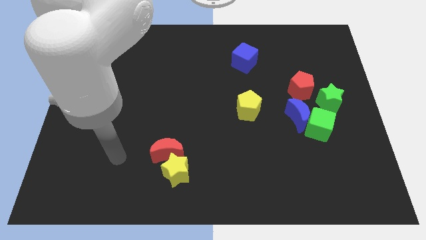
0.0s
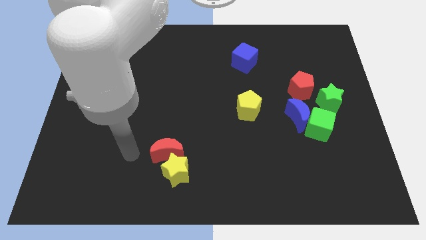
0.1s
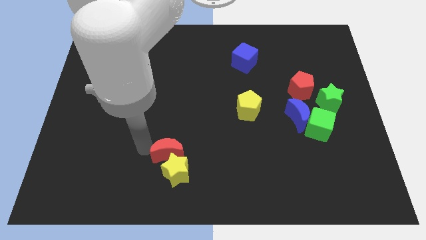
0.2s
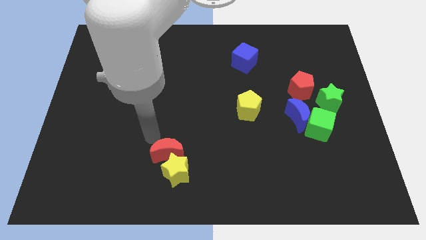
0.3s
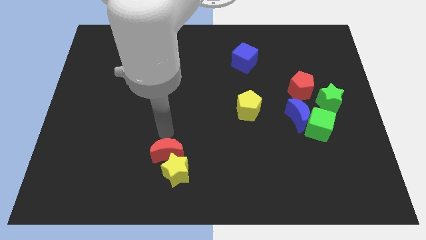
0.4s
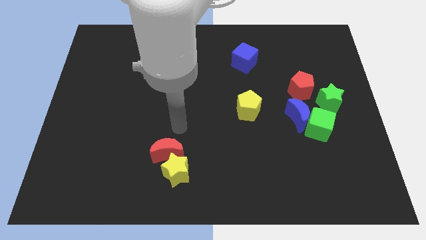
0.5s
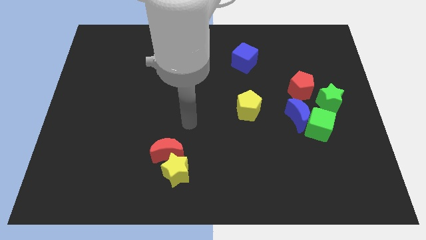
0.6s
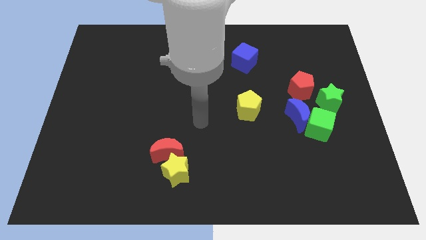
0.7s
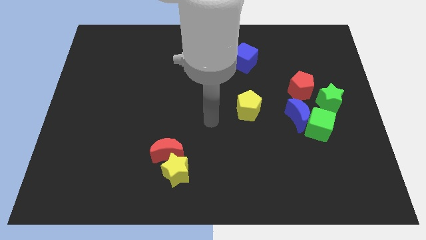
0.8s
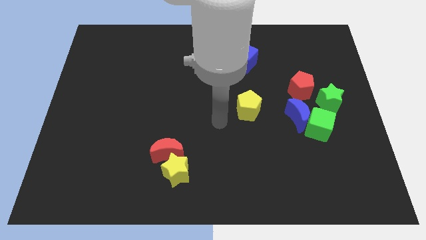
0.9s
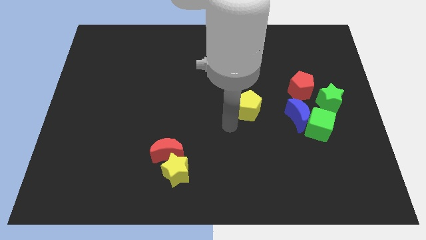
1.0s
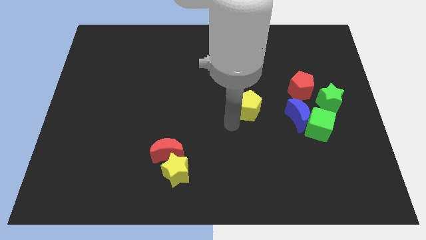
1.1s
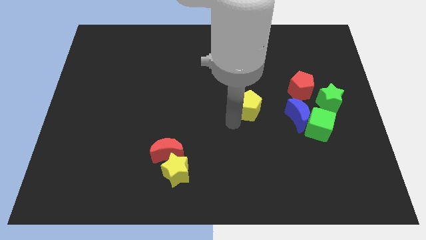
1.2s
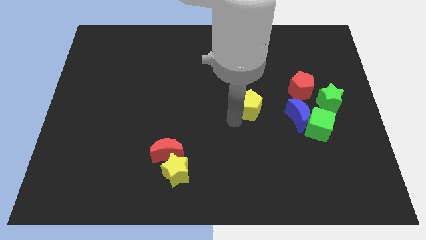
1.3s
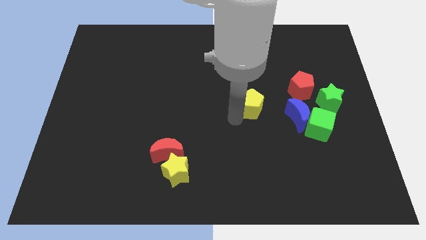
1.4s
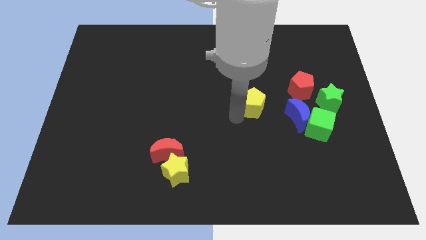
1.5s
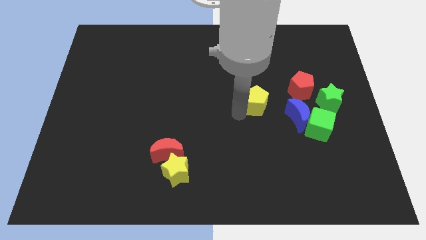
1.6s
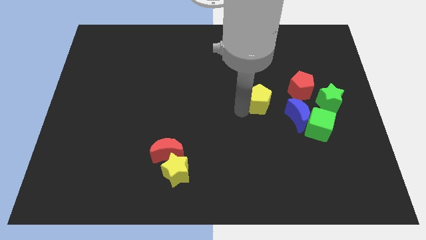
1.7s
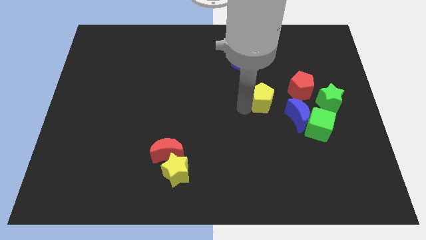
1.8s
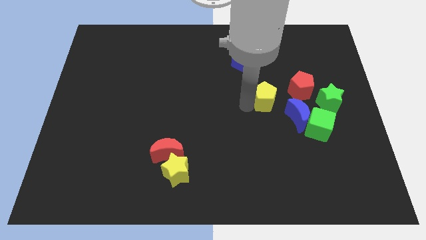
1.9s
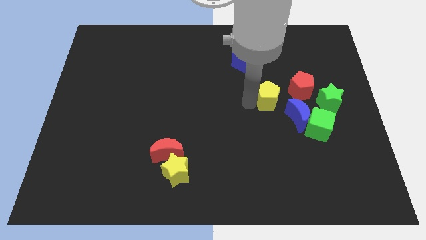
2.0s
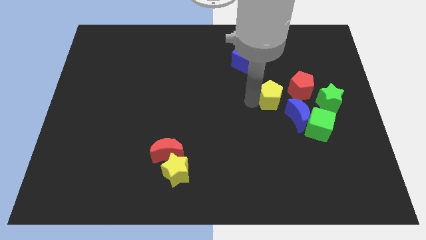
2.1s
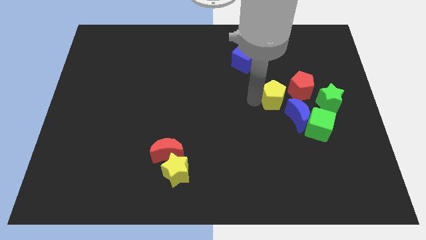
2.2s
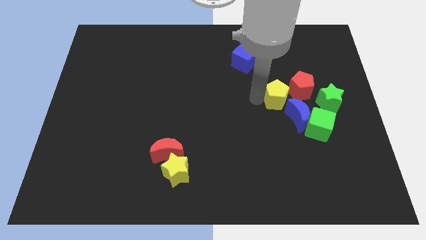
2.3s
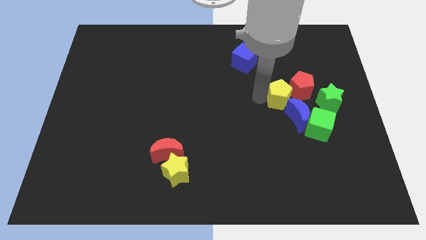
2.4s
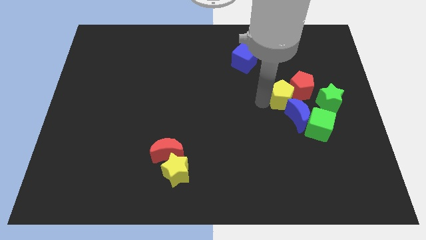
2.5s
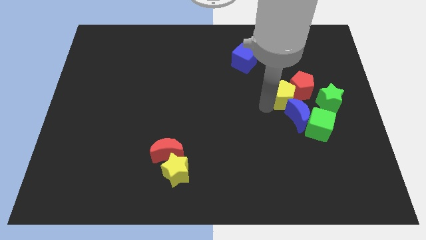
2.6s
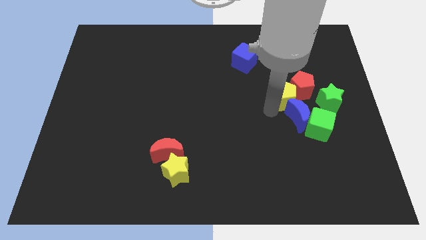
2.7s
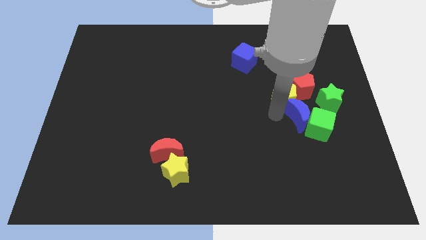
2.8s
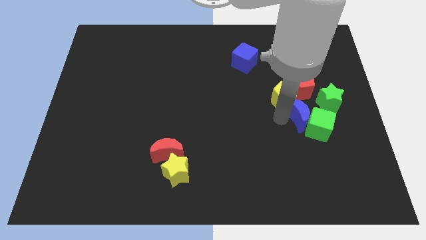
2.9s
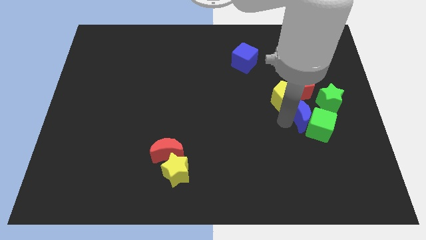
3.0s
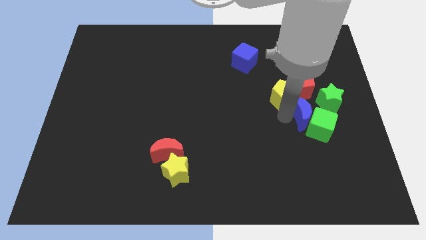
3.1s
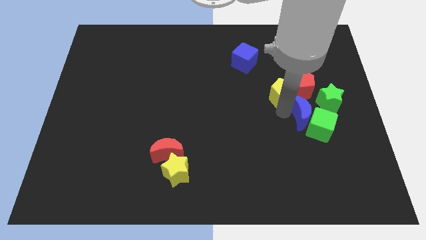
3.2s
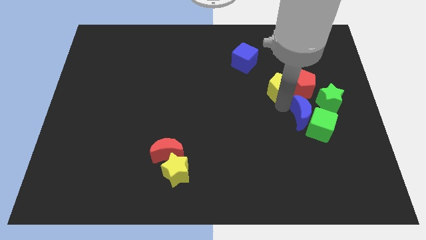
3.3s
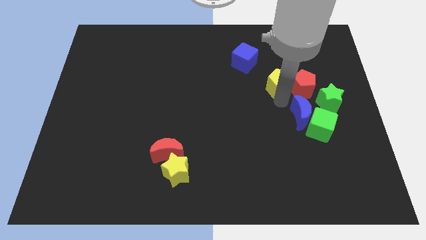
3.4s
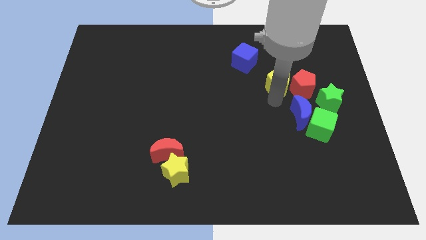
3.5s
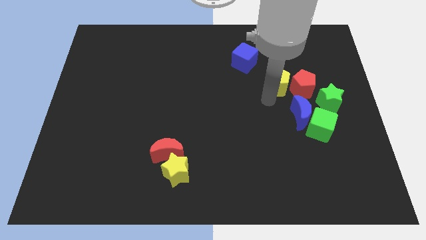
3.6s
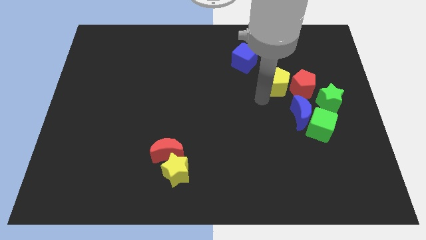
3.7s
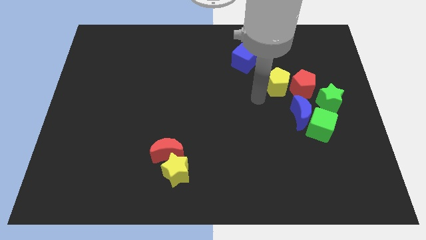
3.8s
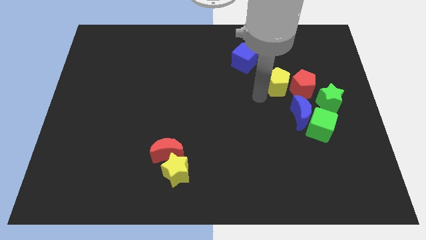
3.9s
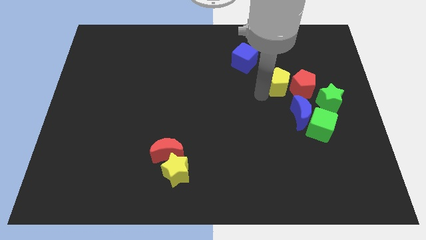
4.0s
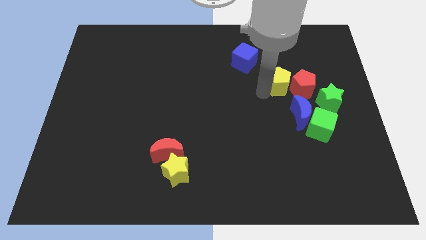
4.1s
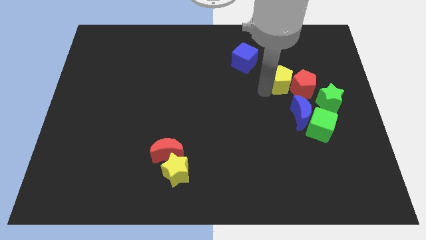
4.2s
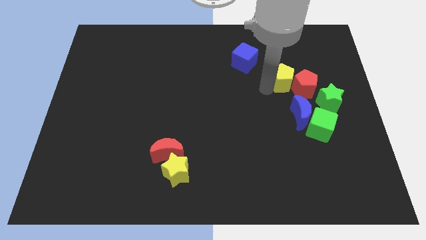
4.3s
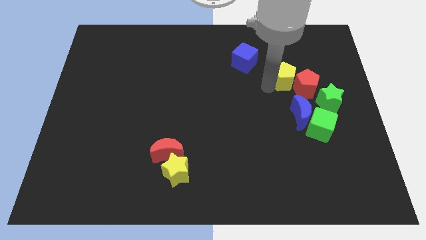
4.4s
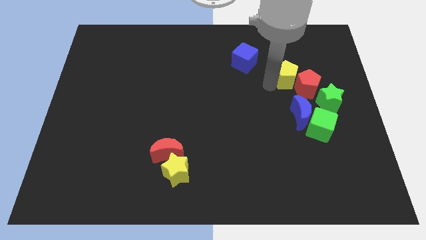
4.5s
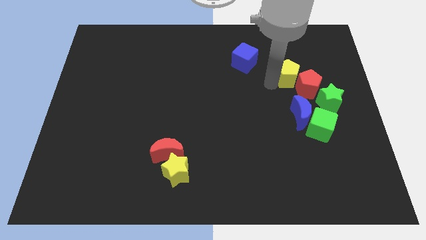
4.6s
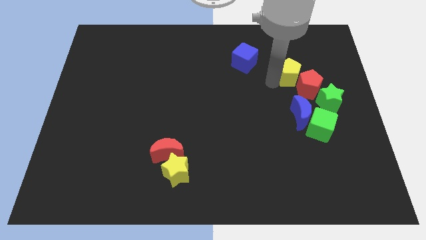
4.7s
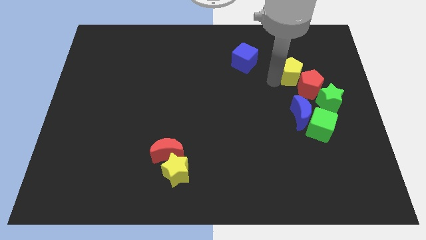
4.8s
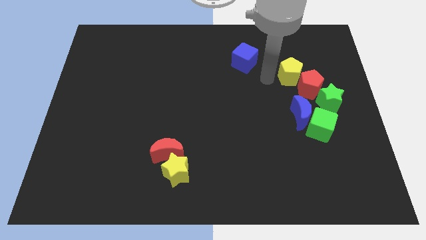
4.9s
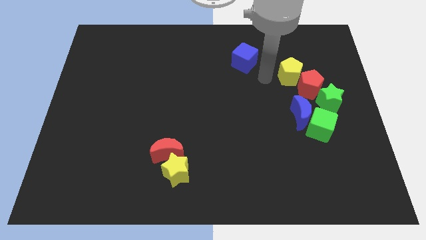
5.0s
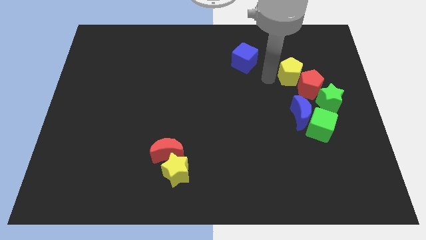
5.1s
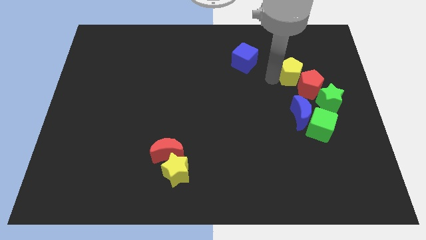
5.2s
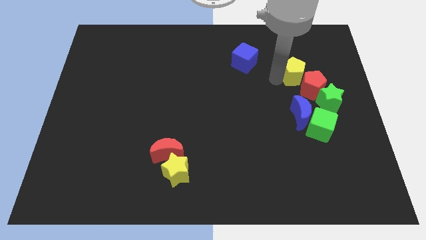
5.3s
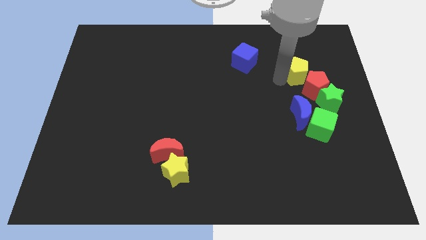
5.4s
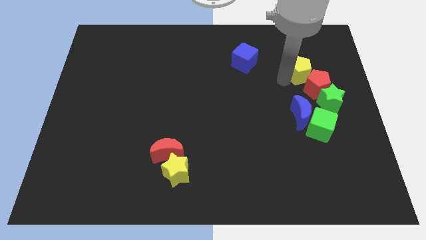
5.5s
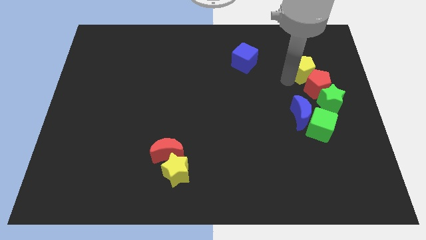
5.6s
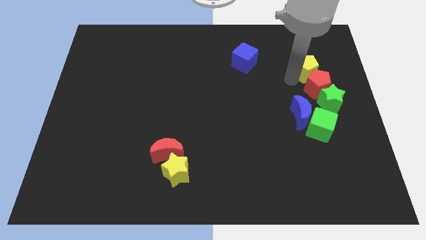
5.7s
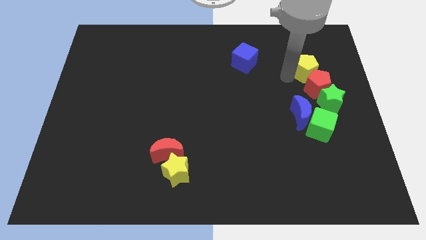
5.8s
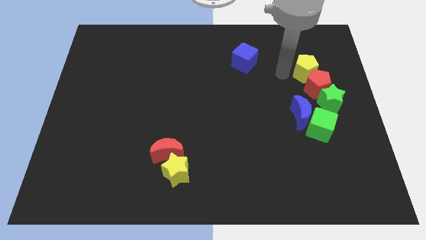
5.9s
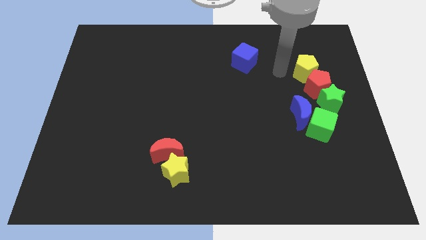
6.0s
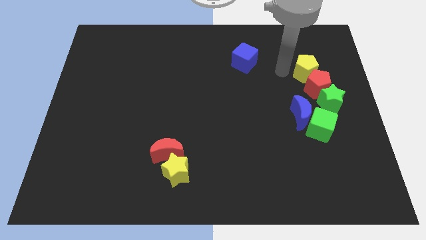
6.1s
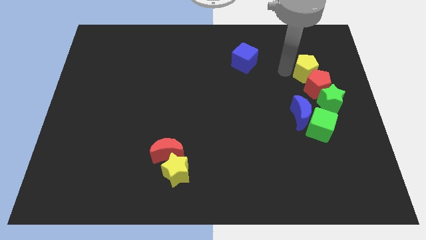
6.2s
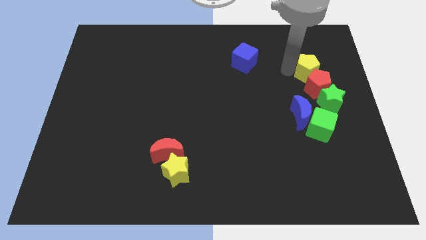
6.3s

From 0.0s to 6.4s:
slide the yellow pentagon to the top right side of the red pentagon
